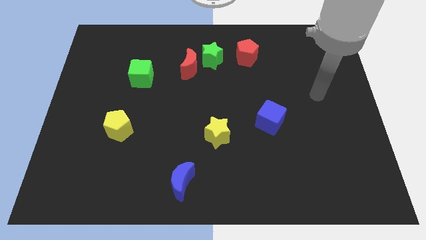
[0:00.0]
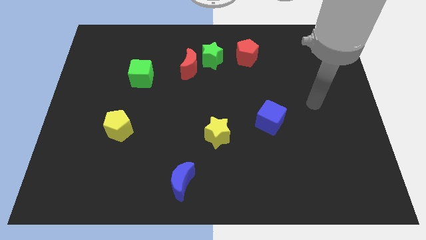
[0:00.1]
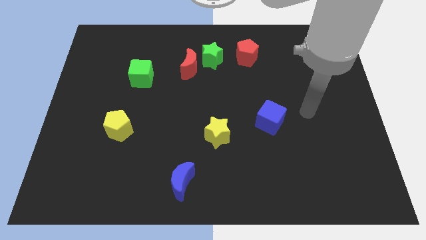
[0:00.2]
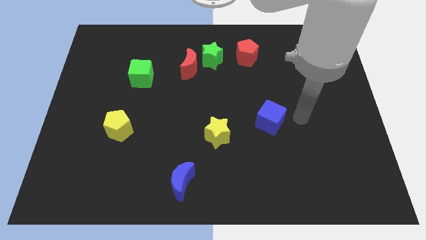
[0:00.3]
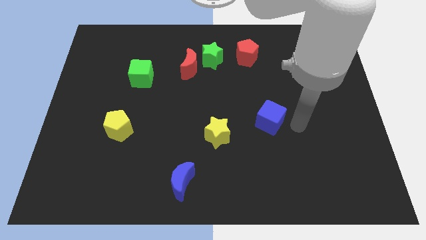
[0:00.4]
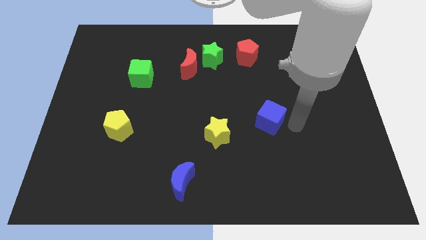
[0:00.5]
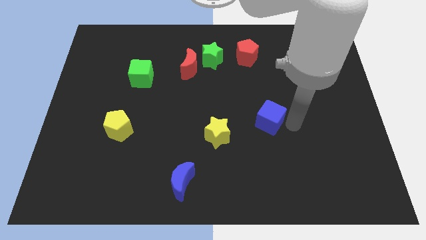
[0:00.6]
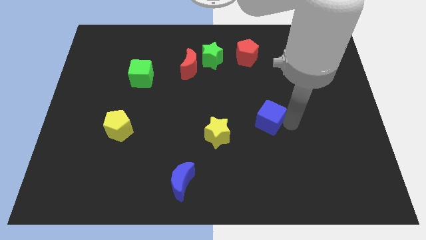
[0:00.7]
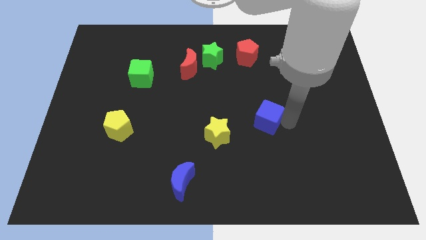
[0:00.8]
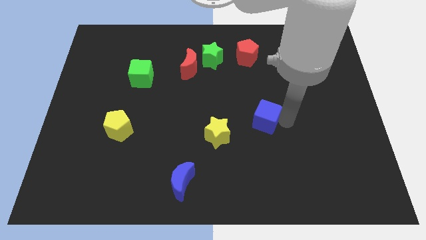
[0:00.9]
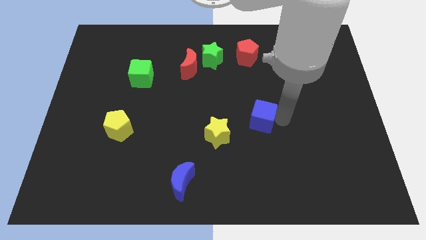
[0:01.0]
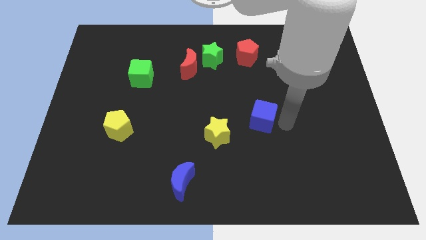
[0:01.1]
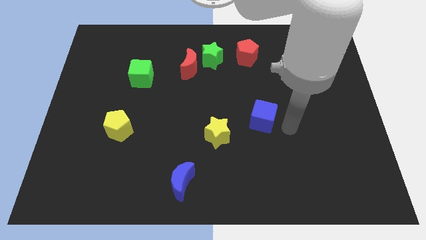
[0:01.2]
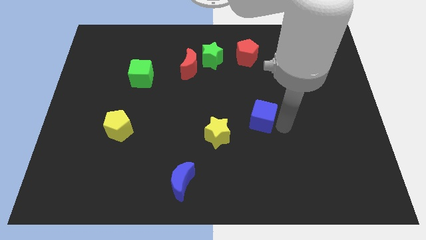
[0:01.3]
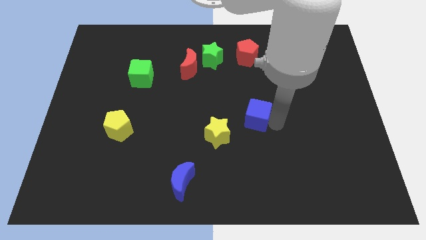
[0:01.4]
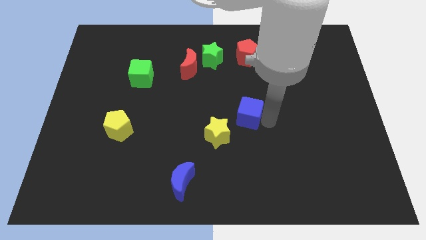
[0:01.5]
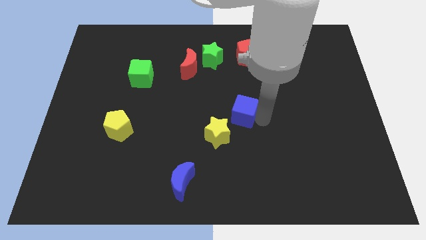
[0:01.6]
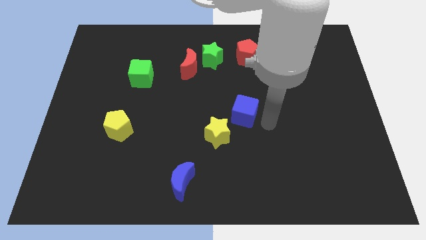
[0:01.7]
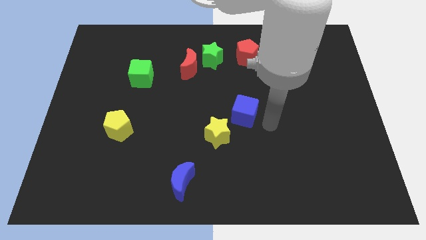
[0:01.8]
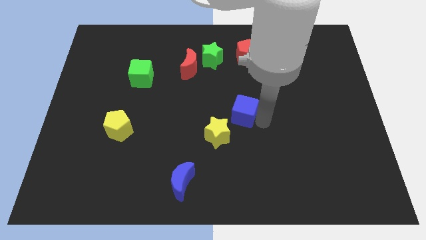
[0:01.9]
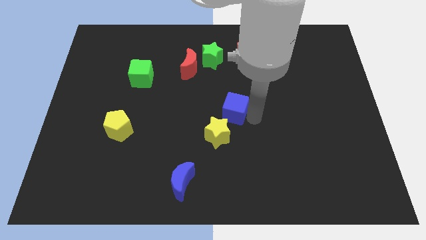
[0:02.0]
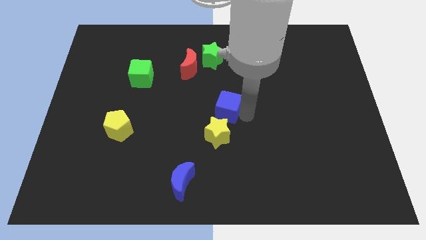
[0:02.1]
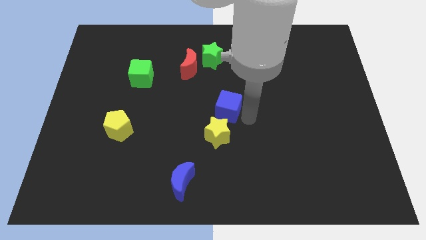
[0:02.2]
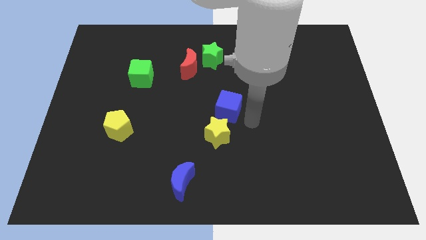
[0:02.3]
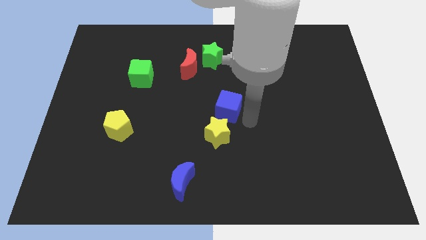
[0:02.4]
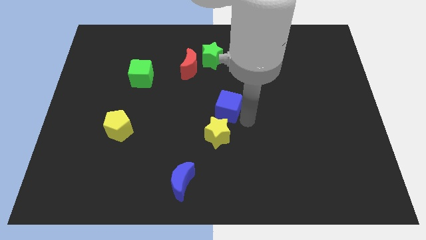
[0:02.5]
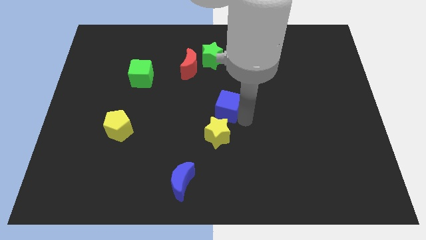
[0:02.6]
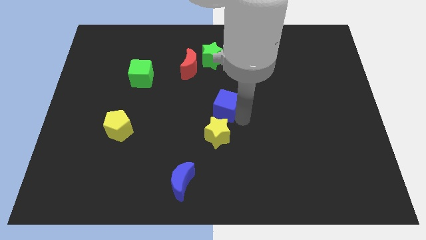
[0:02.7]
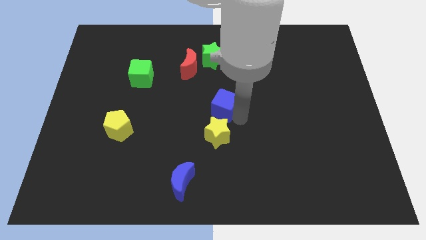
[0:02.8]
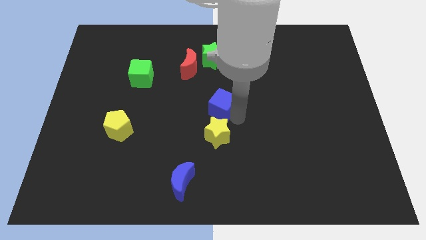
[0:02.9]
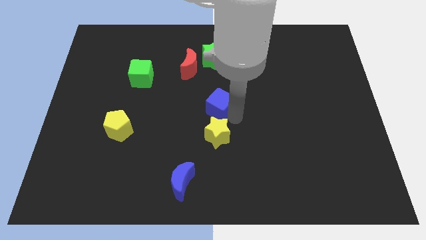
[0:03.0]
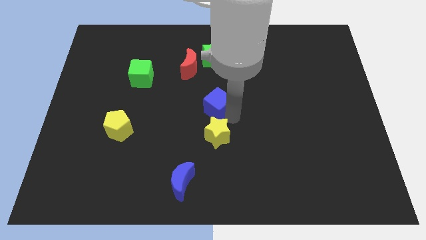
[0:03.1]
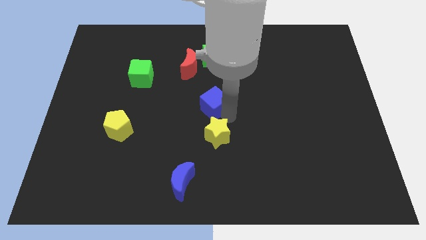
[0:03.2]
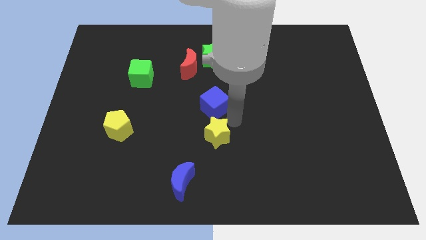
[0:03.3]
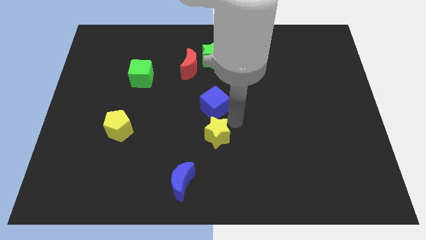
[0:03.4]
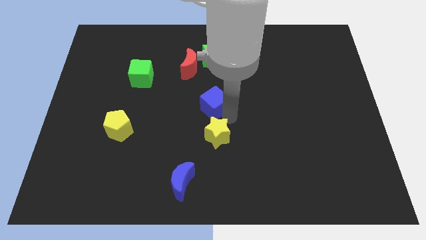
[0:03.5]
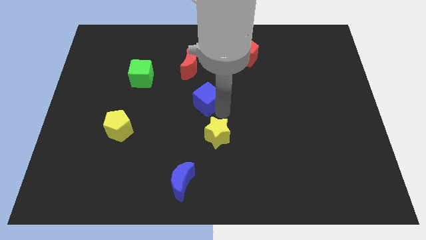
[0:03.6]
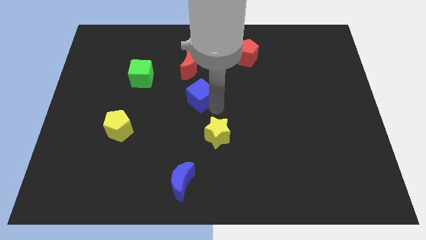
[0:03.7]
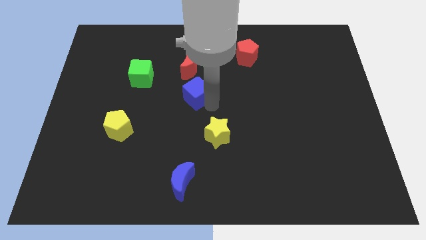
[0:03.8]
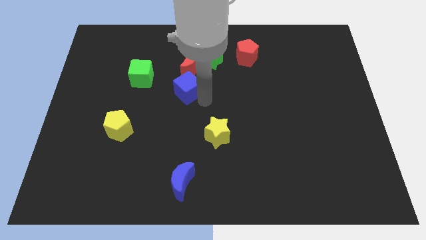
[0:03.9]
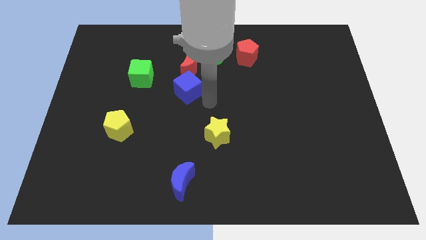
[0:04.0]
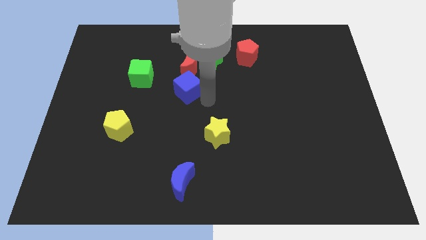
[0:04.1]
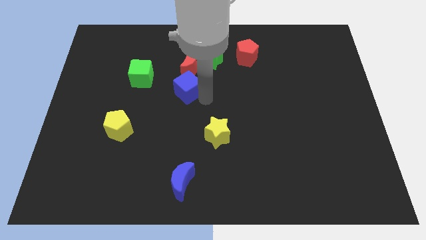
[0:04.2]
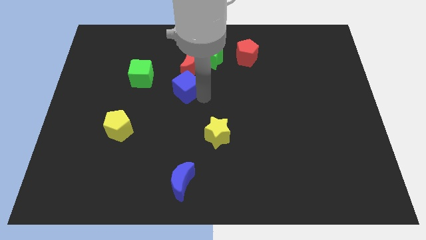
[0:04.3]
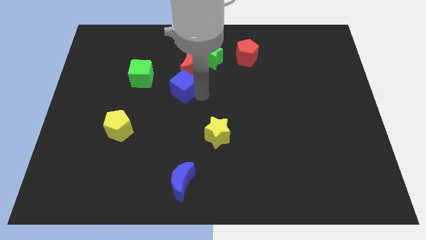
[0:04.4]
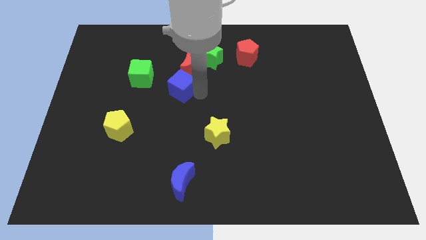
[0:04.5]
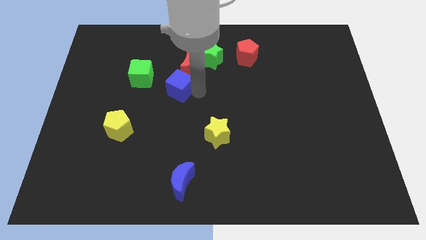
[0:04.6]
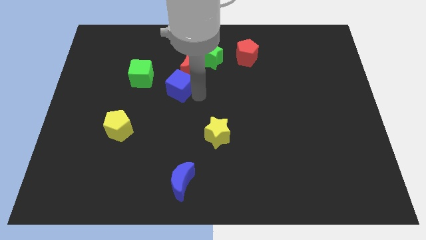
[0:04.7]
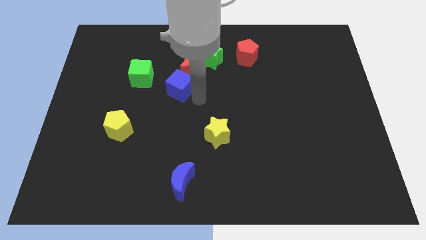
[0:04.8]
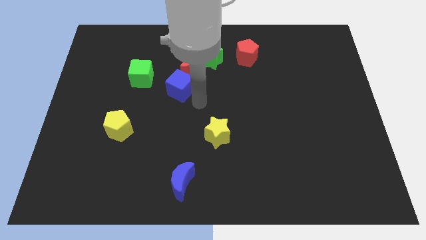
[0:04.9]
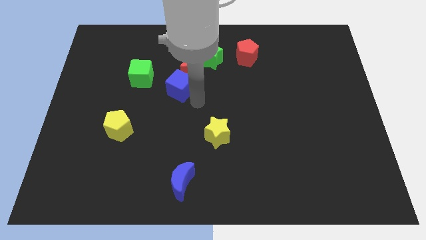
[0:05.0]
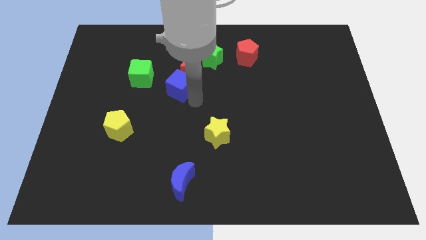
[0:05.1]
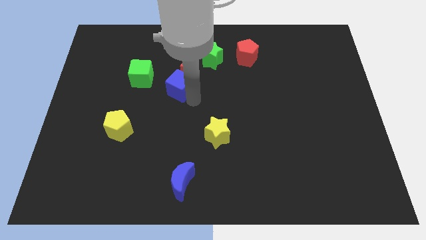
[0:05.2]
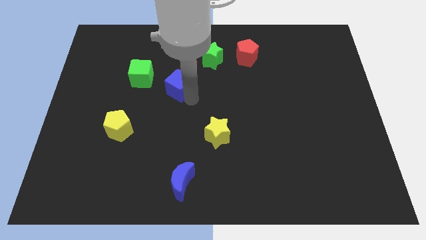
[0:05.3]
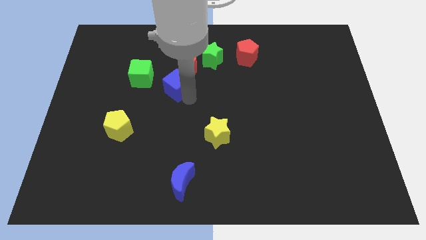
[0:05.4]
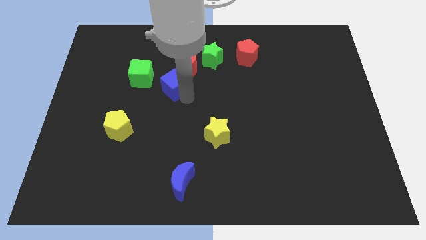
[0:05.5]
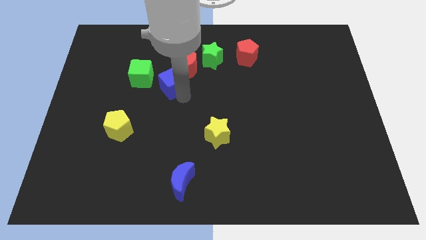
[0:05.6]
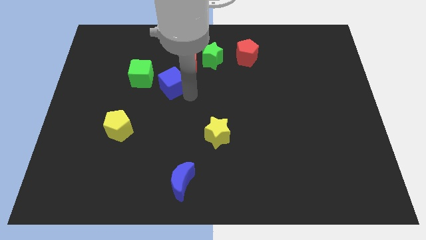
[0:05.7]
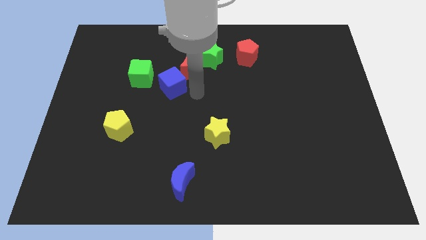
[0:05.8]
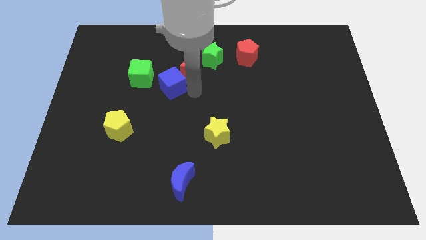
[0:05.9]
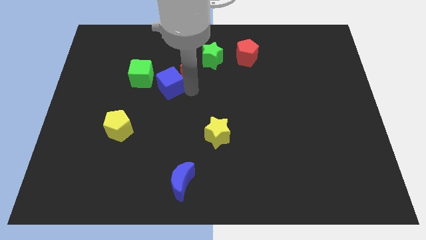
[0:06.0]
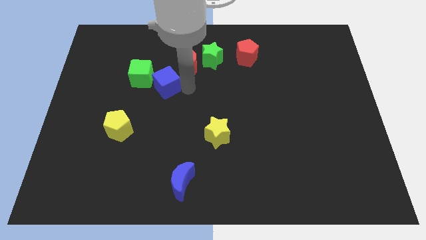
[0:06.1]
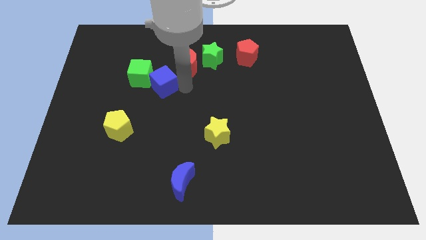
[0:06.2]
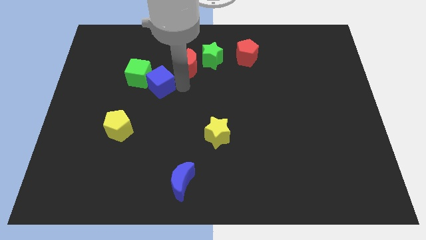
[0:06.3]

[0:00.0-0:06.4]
slide the blue cube close to the green cube
